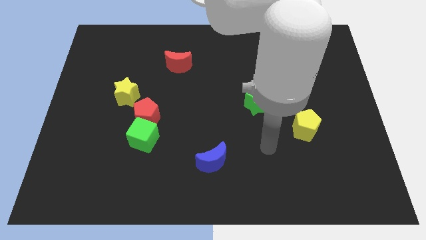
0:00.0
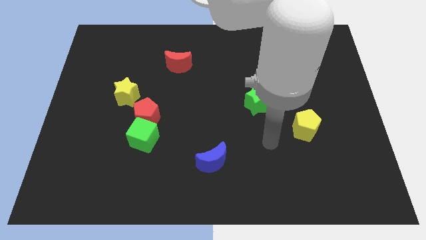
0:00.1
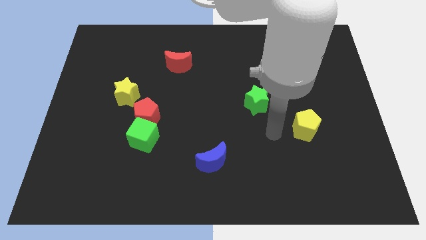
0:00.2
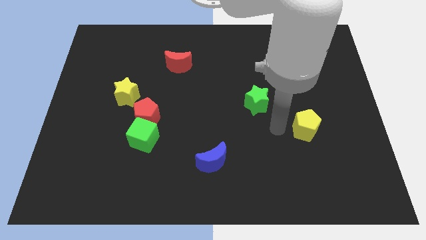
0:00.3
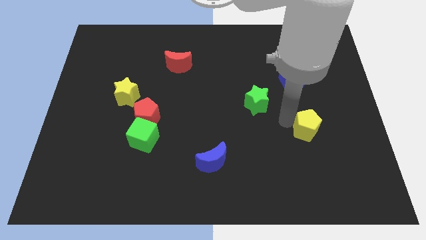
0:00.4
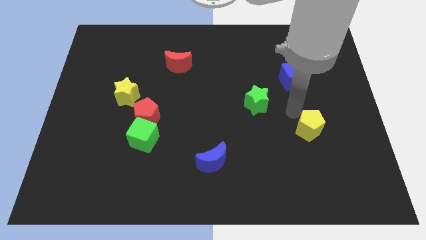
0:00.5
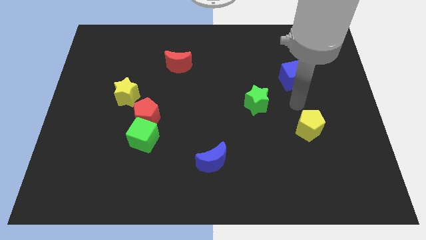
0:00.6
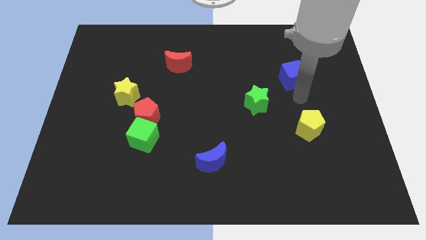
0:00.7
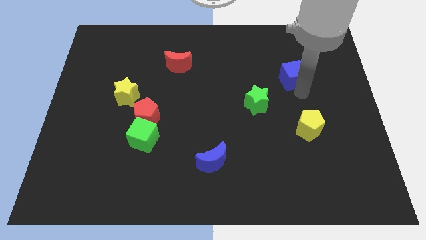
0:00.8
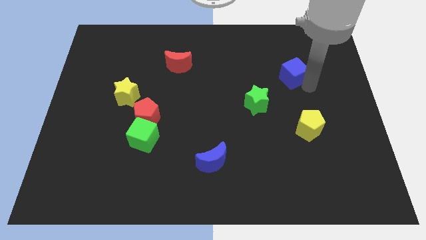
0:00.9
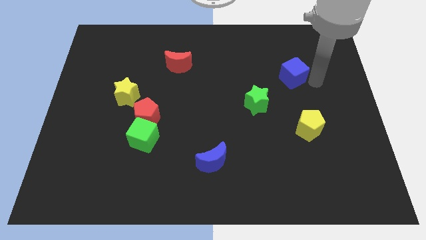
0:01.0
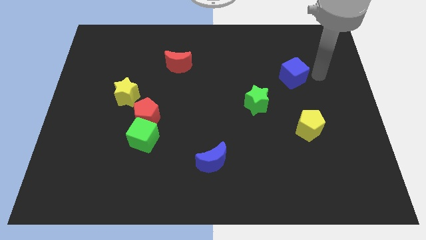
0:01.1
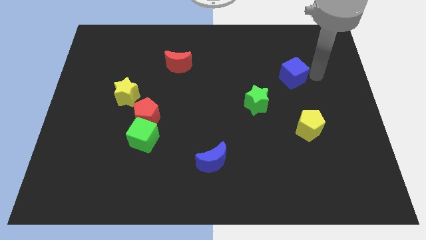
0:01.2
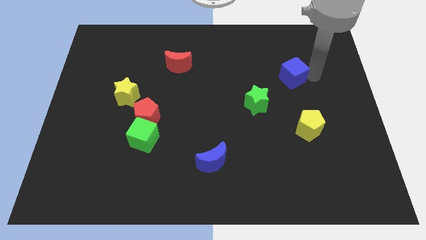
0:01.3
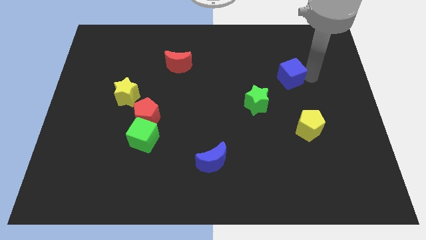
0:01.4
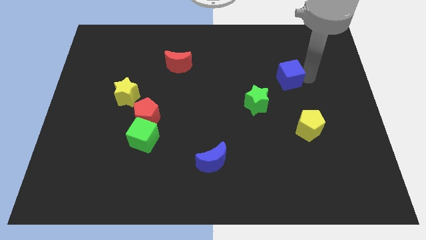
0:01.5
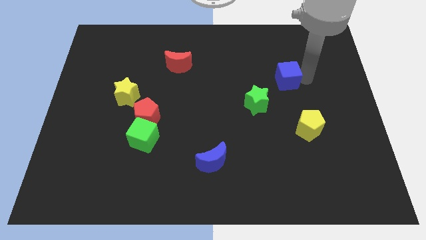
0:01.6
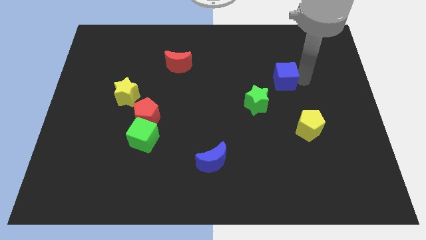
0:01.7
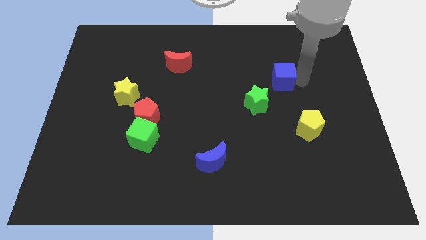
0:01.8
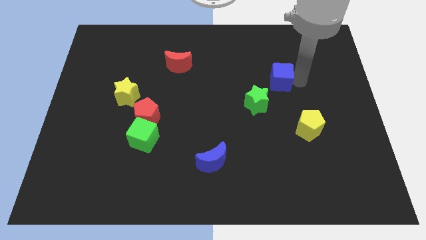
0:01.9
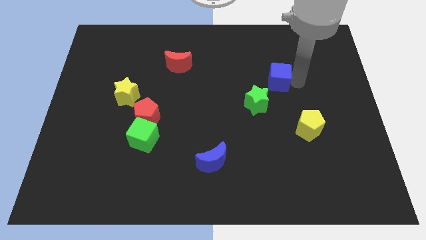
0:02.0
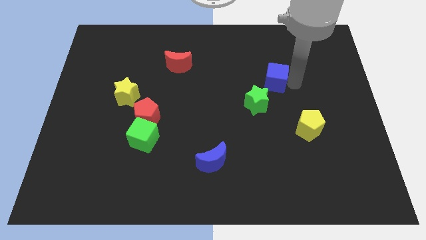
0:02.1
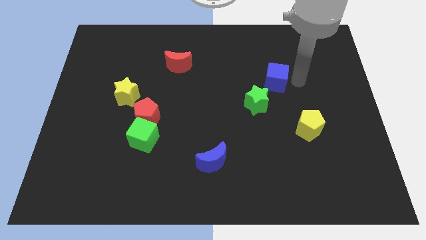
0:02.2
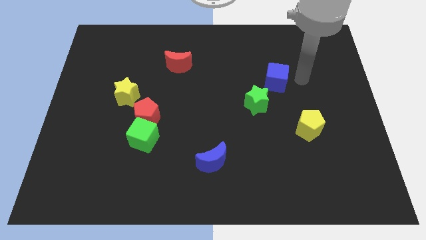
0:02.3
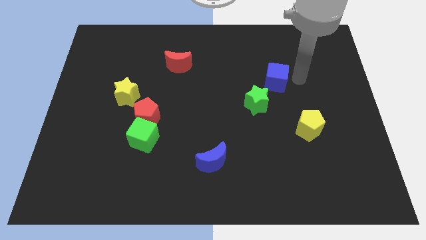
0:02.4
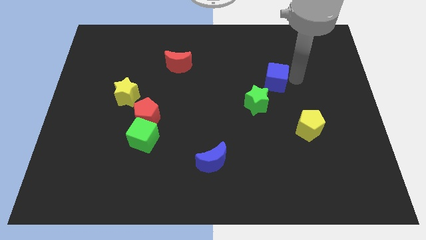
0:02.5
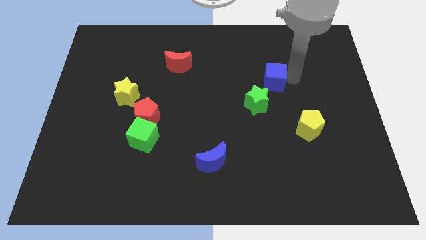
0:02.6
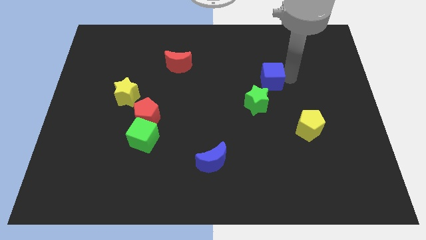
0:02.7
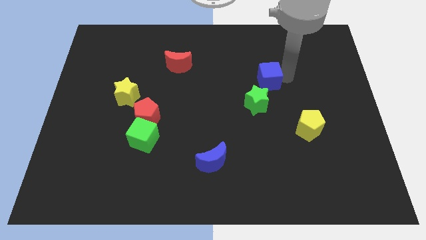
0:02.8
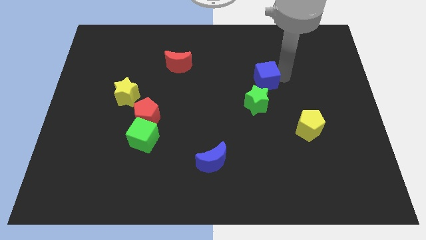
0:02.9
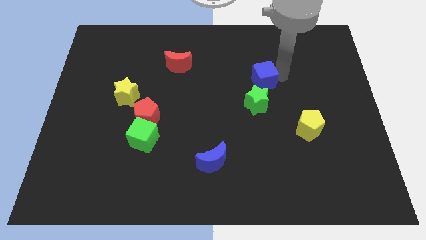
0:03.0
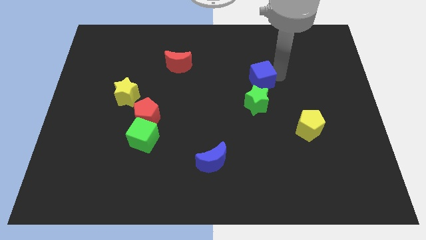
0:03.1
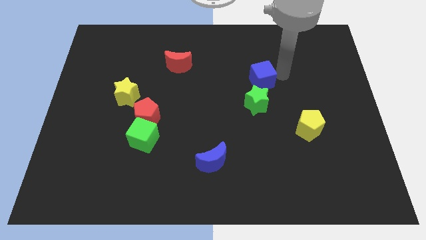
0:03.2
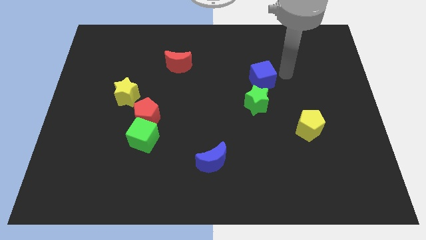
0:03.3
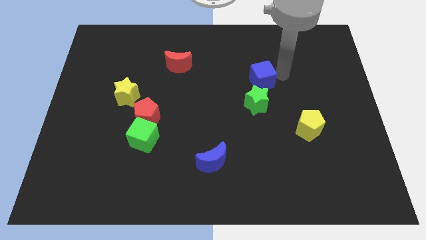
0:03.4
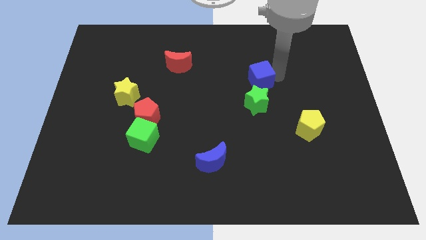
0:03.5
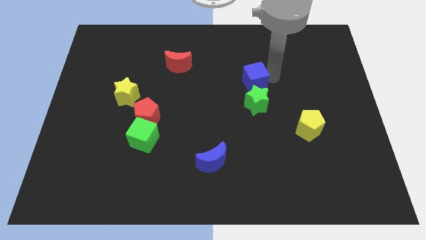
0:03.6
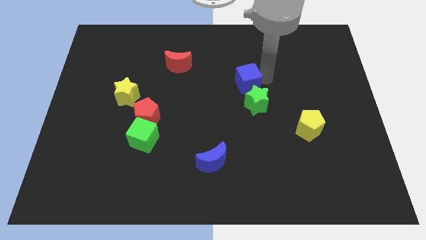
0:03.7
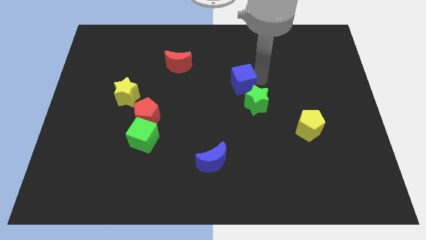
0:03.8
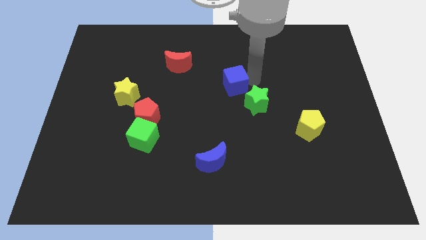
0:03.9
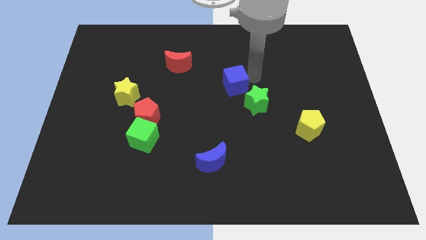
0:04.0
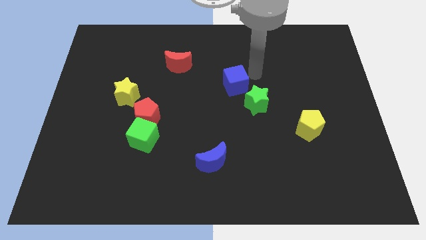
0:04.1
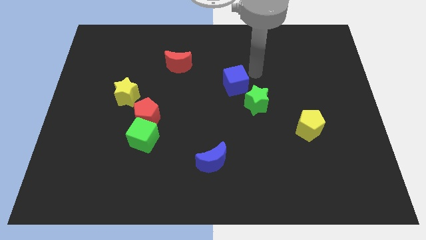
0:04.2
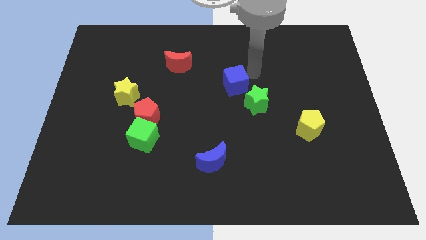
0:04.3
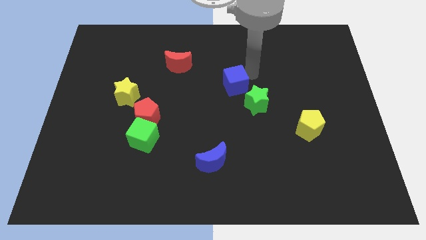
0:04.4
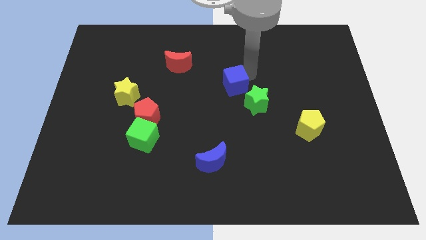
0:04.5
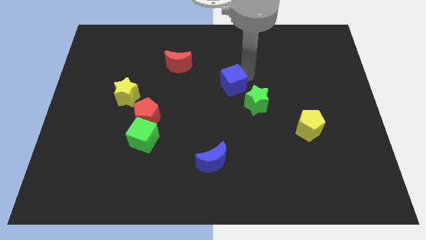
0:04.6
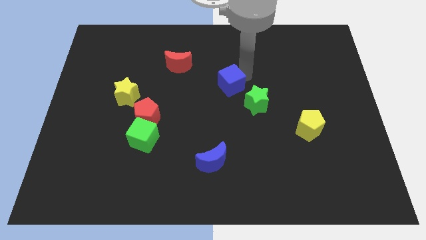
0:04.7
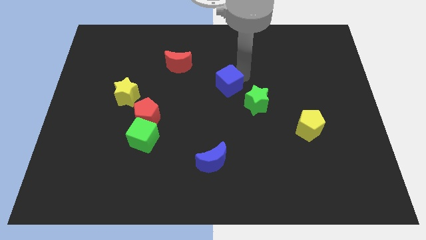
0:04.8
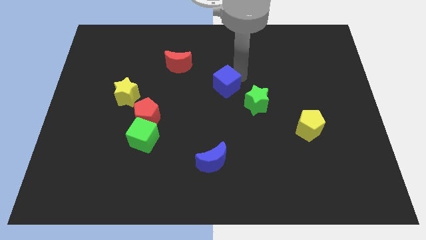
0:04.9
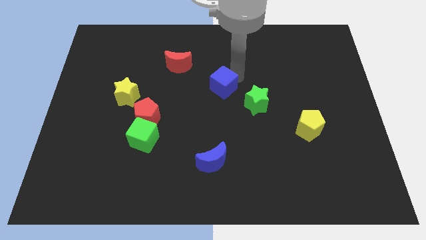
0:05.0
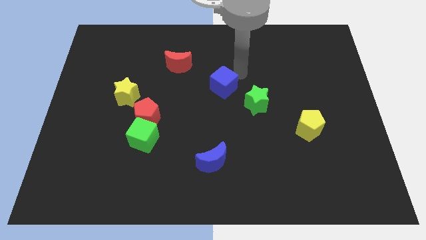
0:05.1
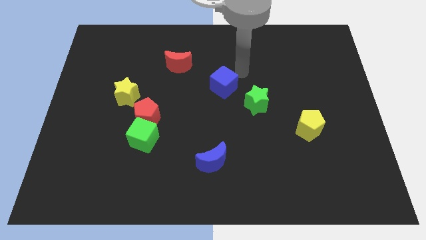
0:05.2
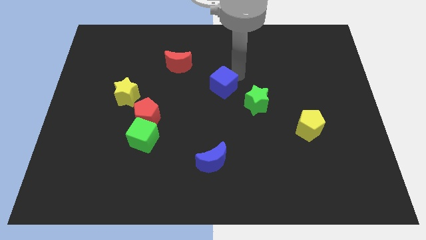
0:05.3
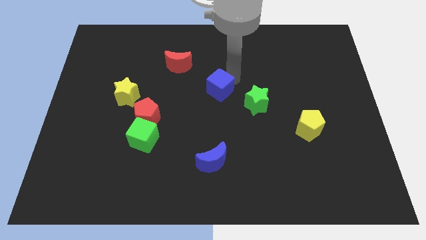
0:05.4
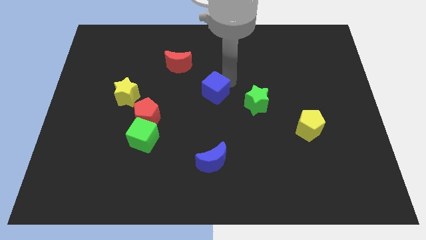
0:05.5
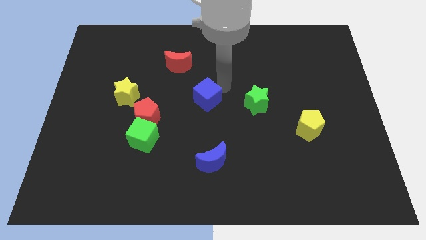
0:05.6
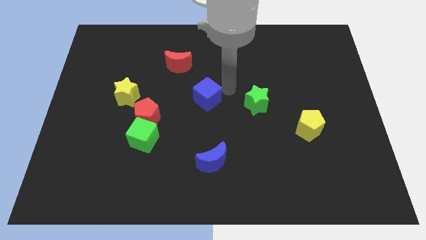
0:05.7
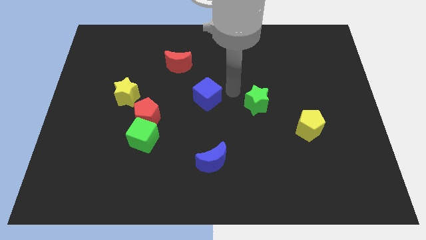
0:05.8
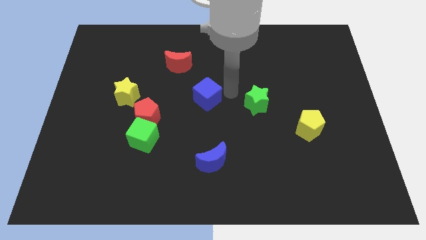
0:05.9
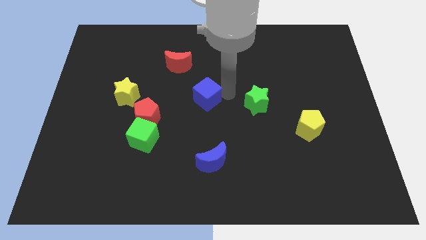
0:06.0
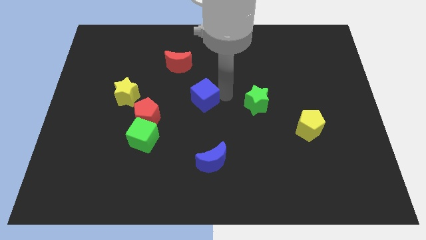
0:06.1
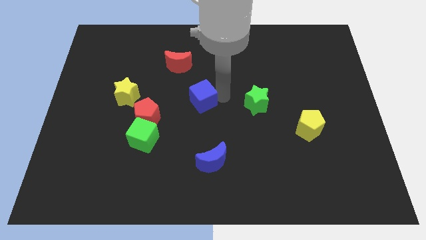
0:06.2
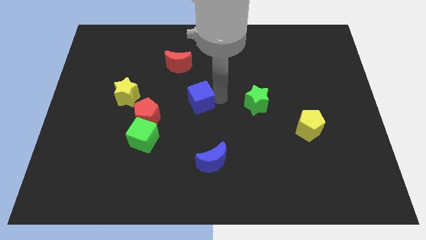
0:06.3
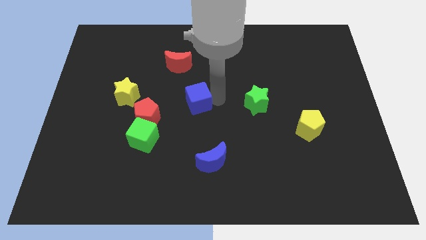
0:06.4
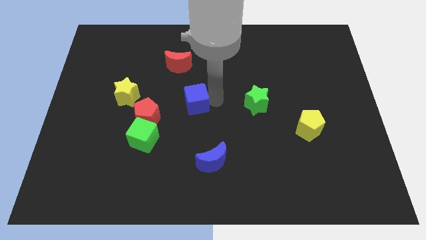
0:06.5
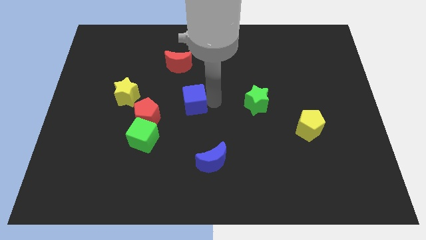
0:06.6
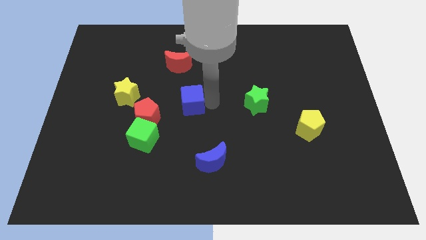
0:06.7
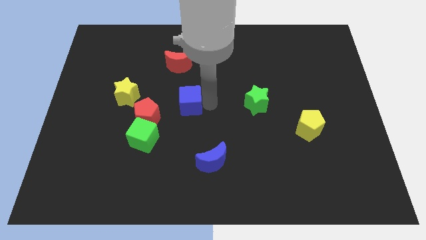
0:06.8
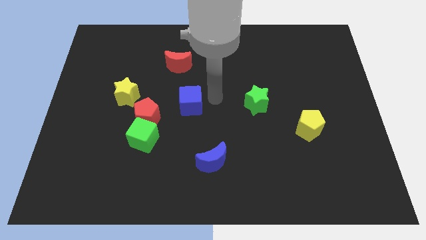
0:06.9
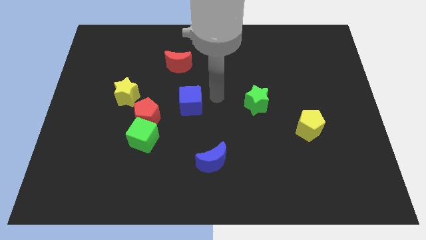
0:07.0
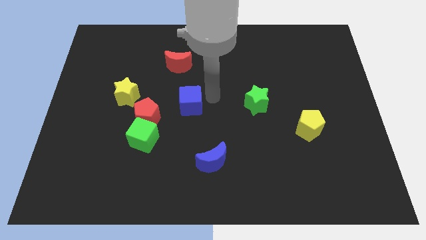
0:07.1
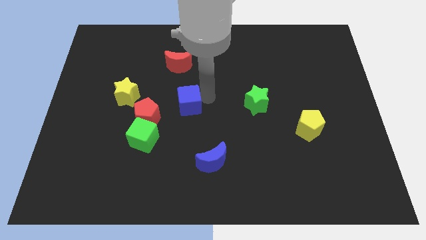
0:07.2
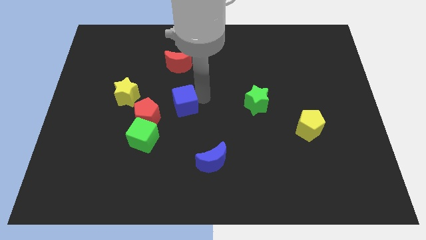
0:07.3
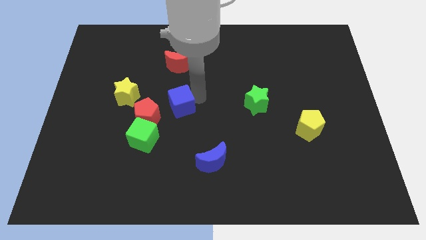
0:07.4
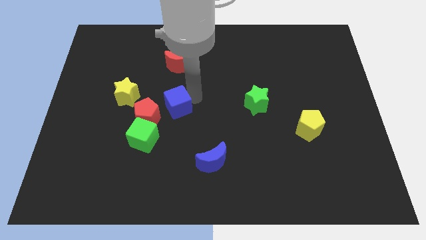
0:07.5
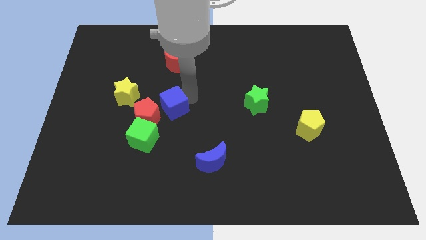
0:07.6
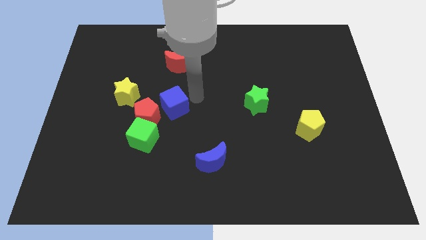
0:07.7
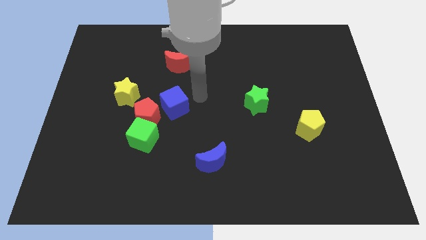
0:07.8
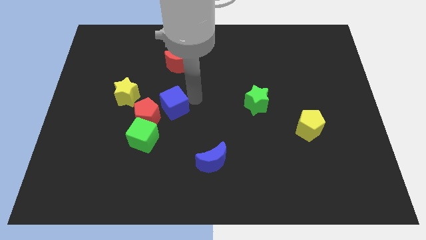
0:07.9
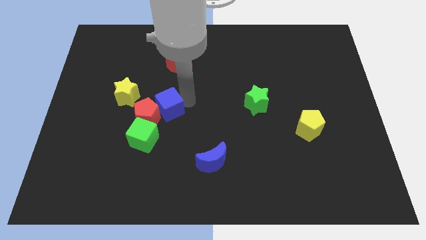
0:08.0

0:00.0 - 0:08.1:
move the blue cube next to the red pentagon
